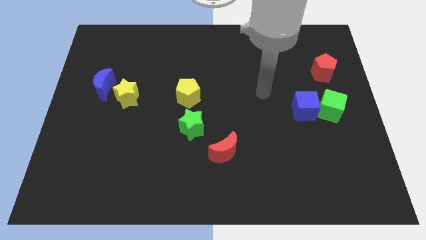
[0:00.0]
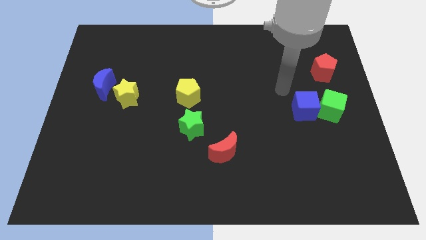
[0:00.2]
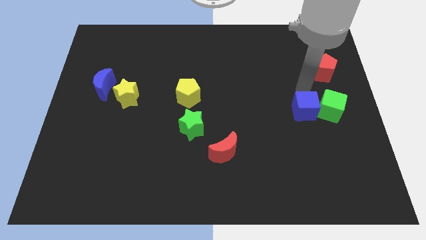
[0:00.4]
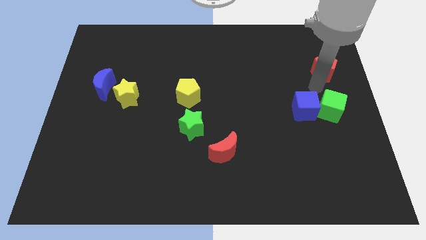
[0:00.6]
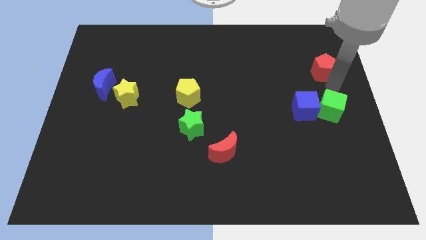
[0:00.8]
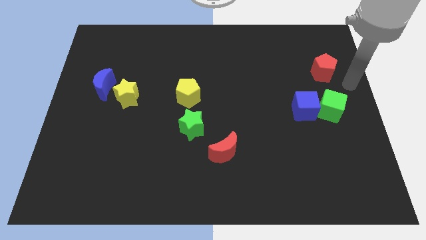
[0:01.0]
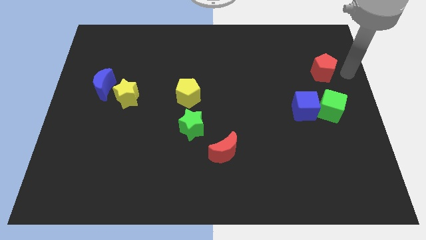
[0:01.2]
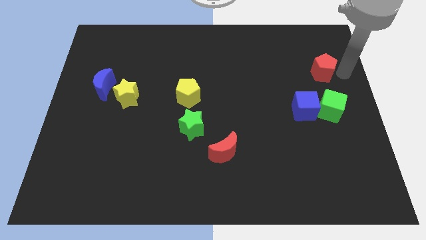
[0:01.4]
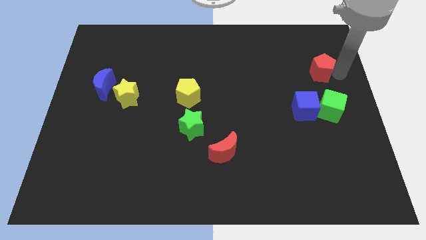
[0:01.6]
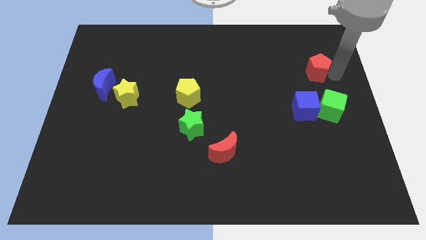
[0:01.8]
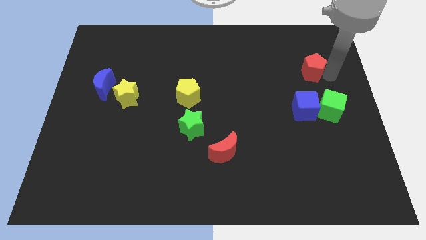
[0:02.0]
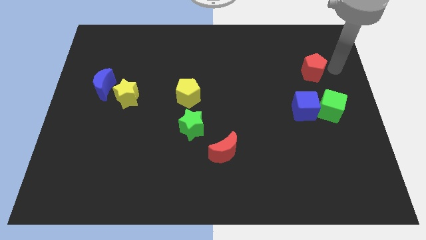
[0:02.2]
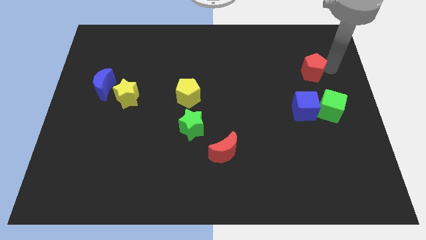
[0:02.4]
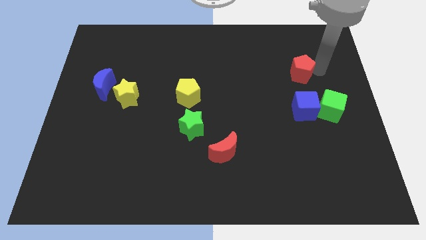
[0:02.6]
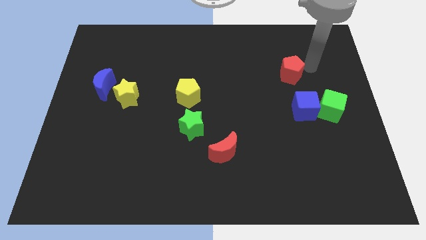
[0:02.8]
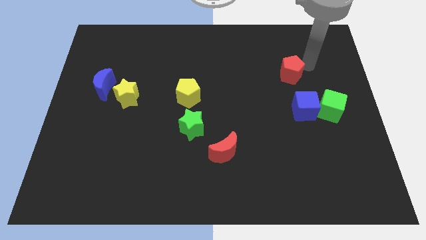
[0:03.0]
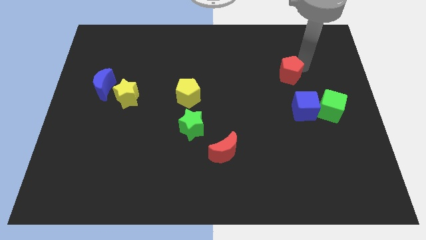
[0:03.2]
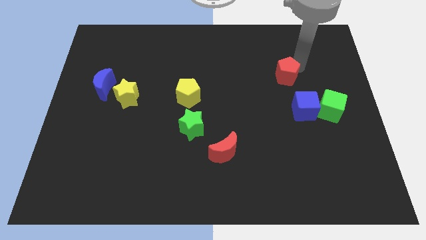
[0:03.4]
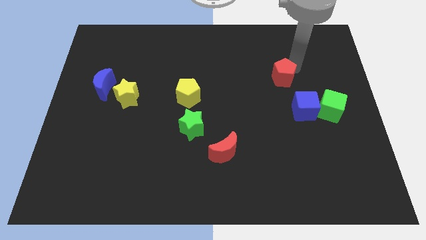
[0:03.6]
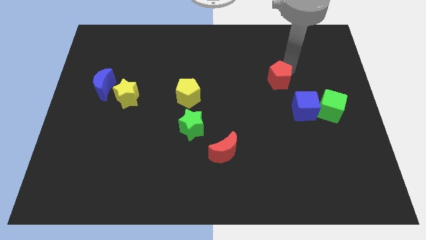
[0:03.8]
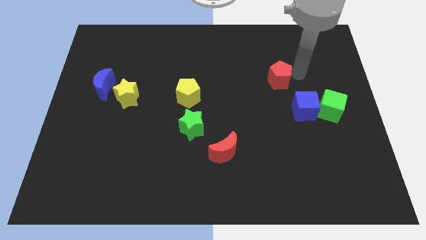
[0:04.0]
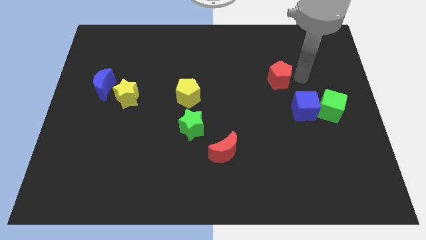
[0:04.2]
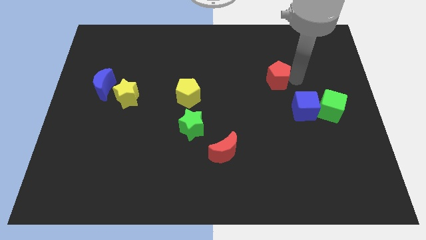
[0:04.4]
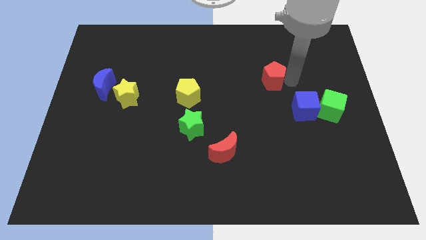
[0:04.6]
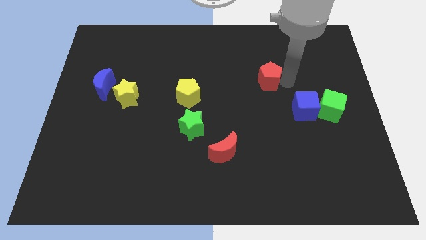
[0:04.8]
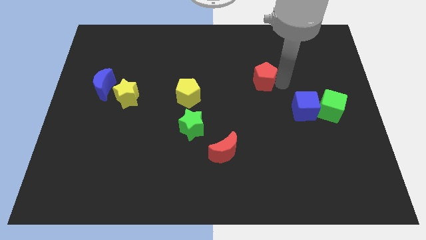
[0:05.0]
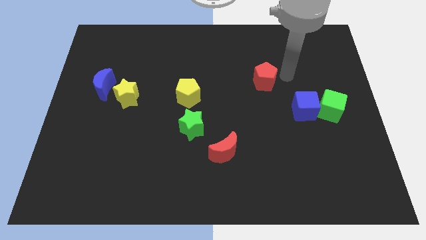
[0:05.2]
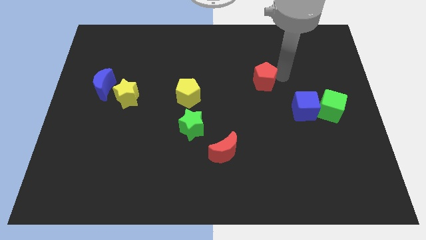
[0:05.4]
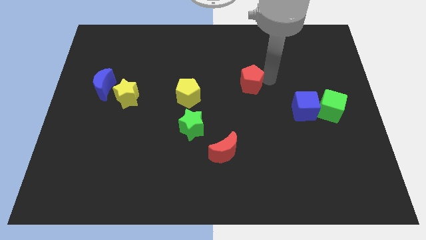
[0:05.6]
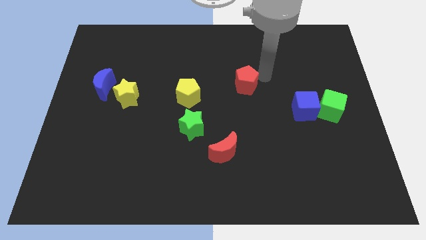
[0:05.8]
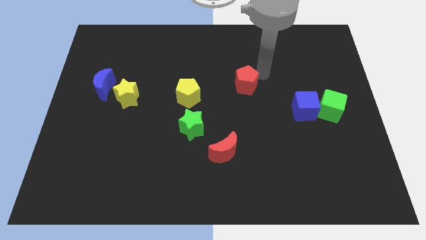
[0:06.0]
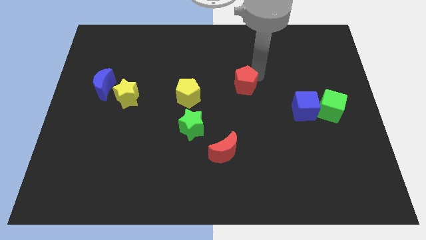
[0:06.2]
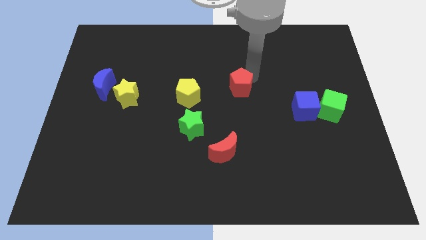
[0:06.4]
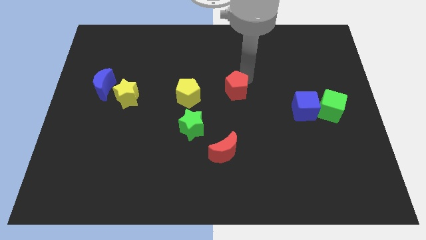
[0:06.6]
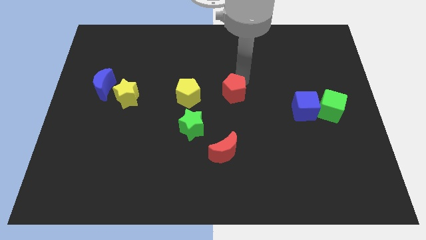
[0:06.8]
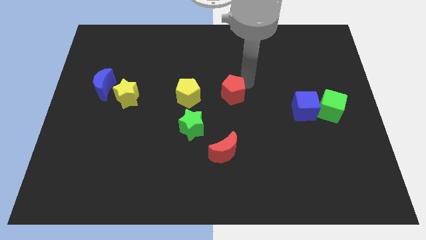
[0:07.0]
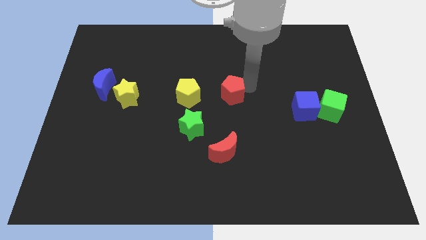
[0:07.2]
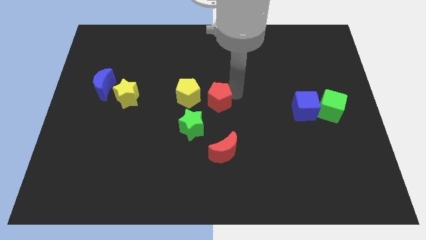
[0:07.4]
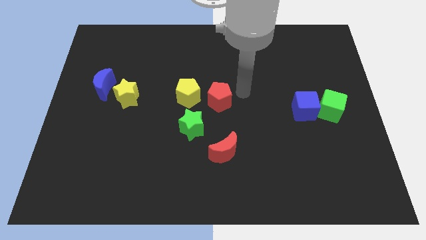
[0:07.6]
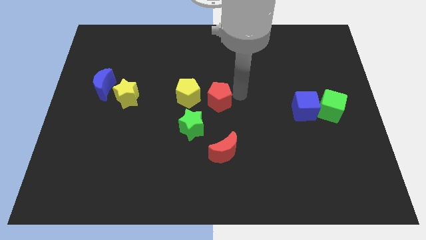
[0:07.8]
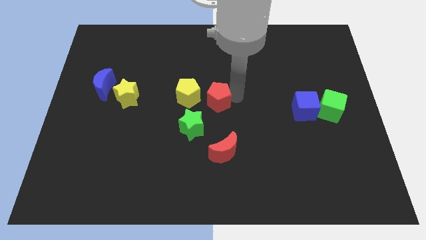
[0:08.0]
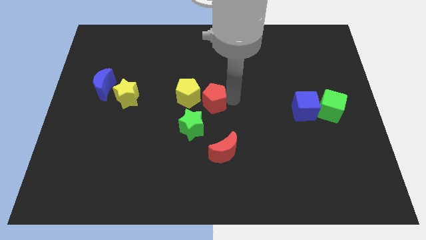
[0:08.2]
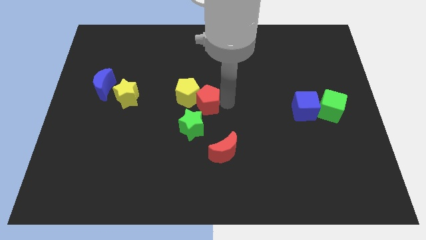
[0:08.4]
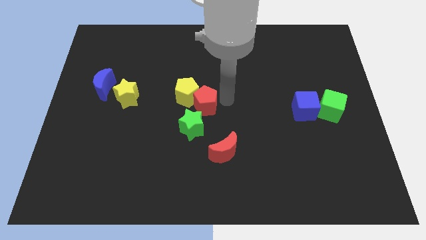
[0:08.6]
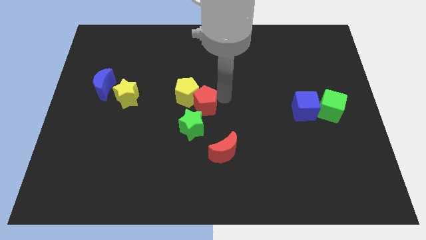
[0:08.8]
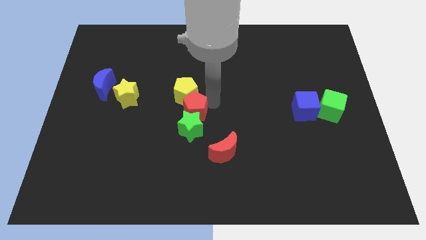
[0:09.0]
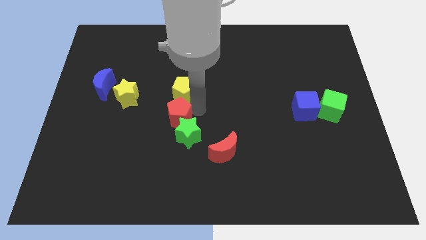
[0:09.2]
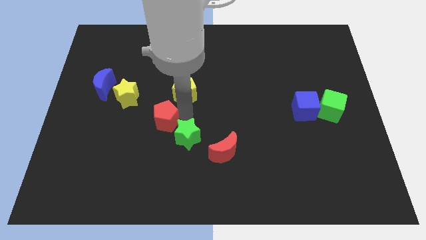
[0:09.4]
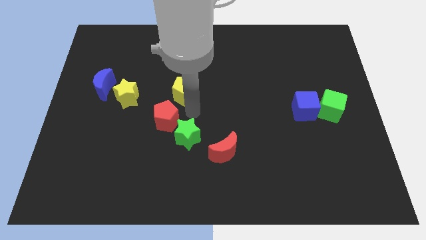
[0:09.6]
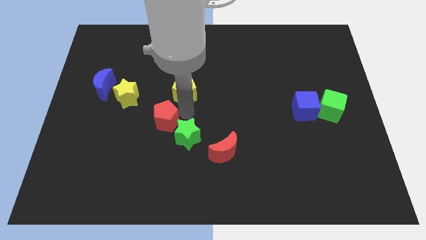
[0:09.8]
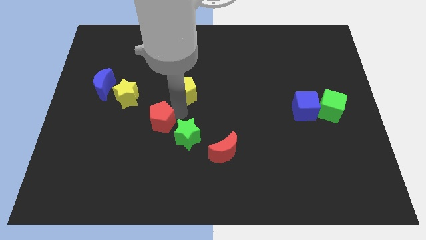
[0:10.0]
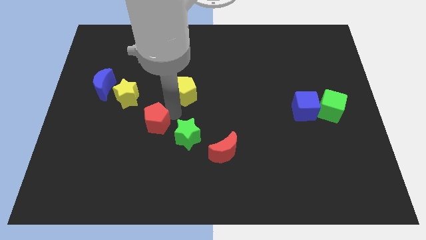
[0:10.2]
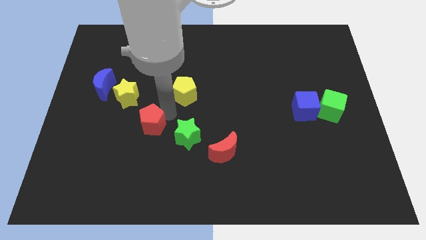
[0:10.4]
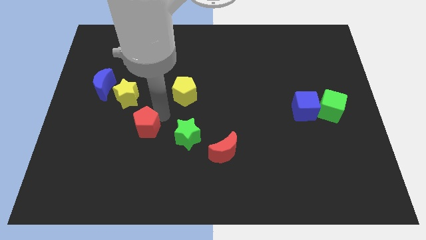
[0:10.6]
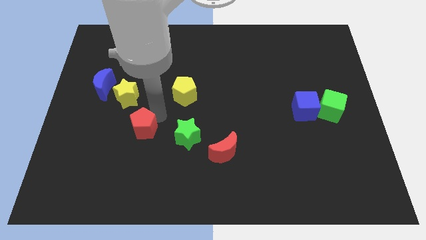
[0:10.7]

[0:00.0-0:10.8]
push the red pentagon to the bottom of the yellow star
